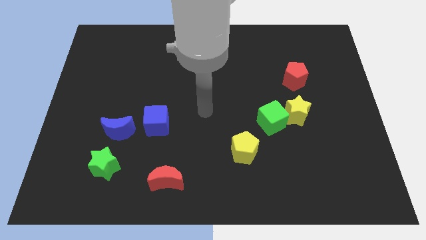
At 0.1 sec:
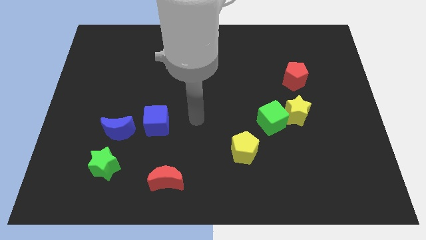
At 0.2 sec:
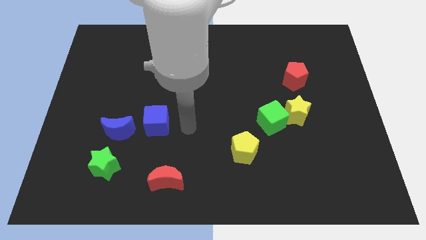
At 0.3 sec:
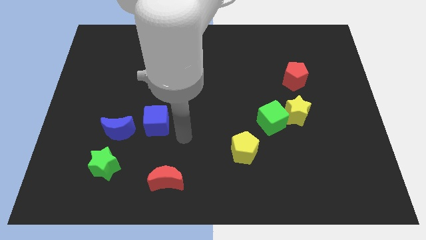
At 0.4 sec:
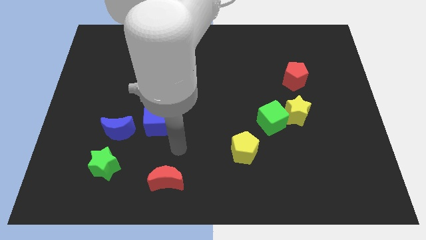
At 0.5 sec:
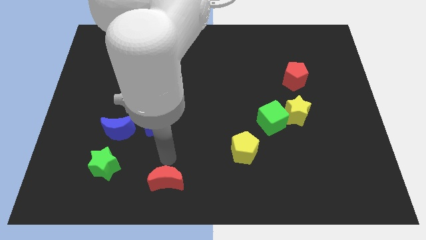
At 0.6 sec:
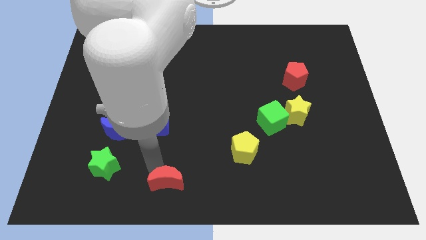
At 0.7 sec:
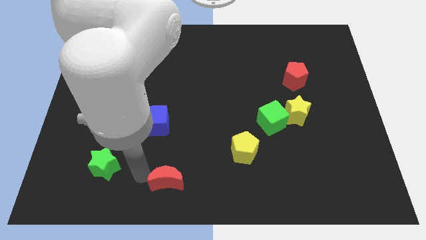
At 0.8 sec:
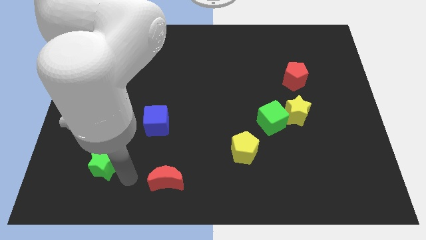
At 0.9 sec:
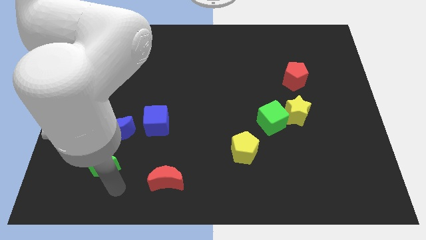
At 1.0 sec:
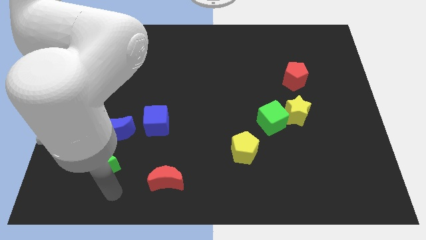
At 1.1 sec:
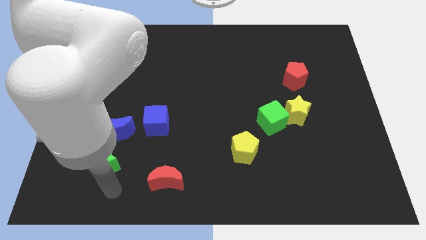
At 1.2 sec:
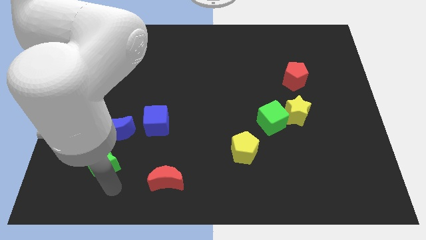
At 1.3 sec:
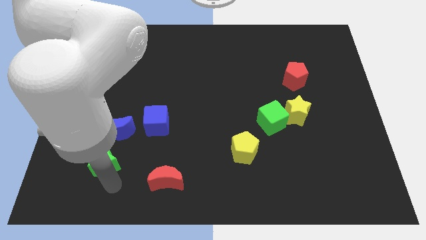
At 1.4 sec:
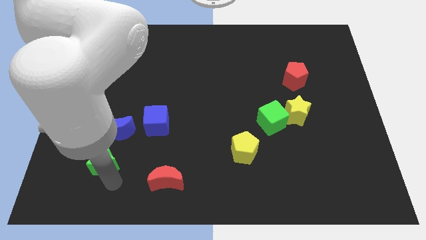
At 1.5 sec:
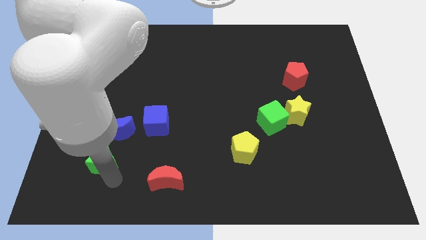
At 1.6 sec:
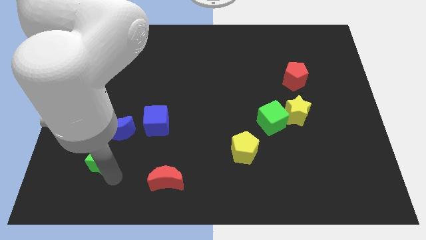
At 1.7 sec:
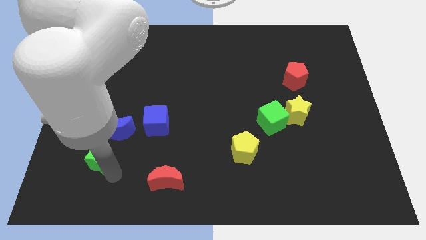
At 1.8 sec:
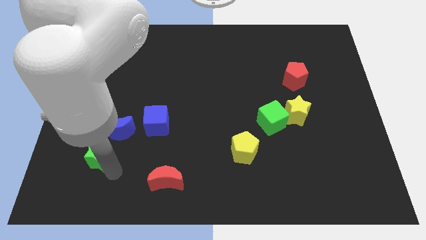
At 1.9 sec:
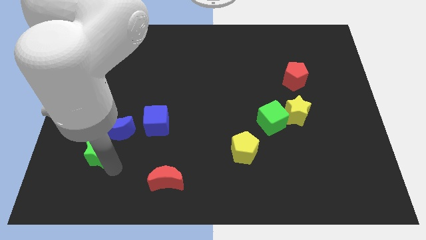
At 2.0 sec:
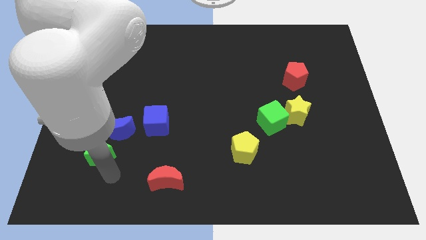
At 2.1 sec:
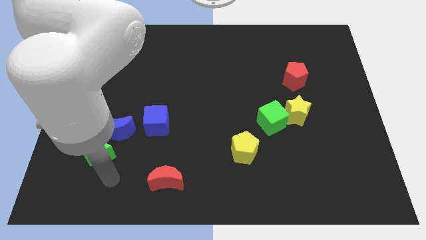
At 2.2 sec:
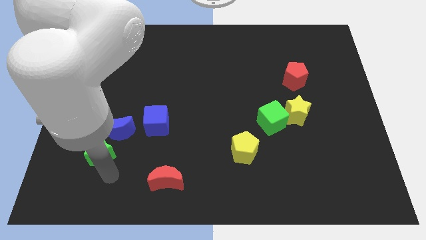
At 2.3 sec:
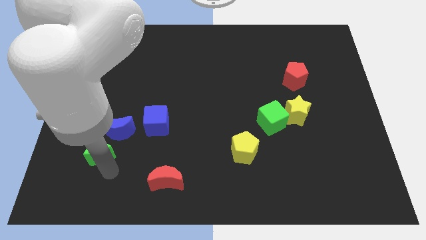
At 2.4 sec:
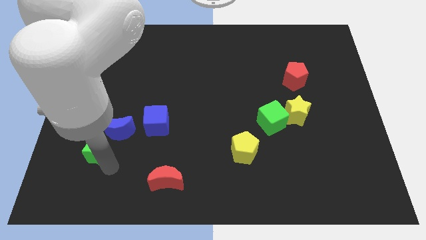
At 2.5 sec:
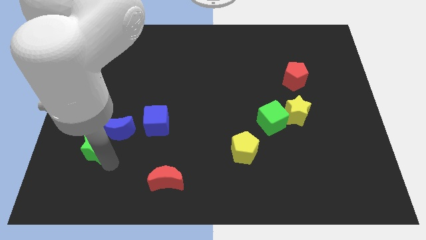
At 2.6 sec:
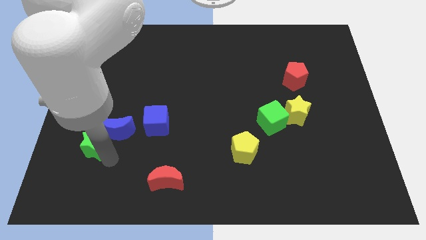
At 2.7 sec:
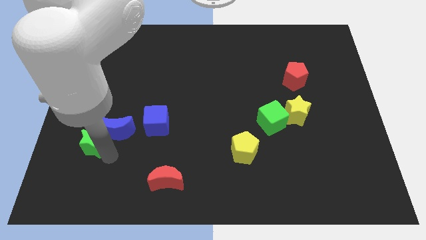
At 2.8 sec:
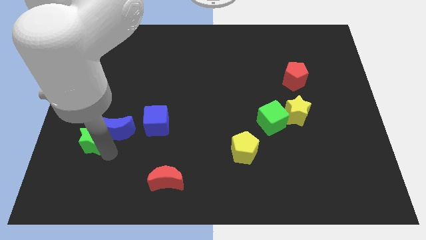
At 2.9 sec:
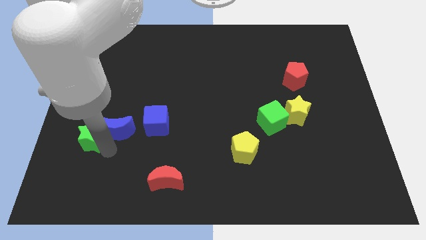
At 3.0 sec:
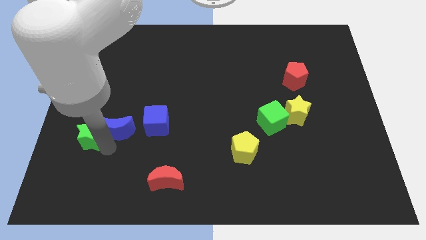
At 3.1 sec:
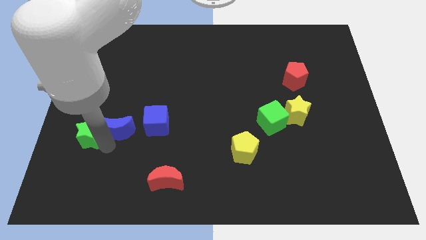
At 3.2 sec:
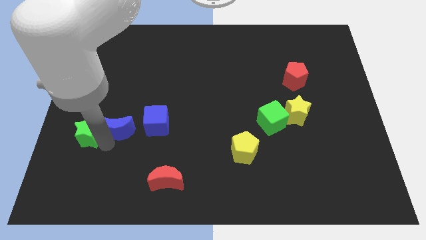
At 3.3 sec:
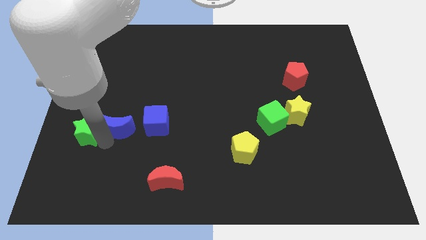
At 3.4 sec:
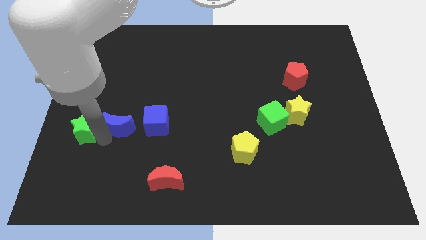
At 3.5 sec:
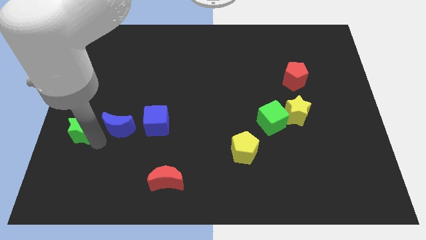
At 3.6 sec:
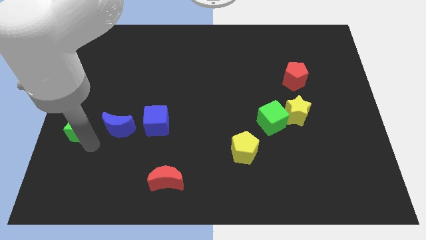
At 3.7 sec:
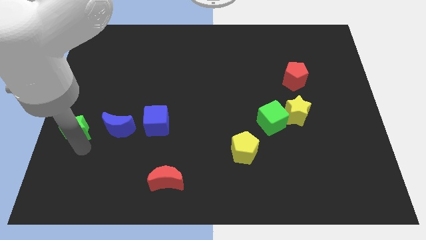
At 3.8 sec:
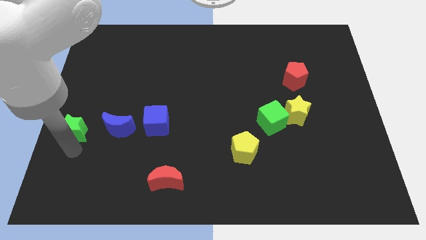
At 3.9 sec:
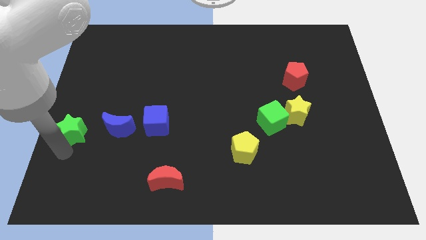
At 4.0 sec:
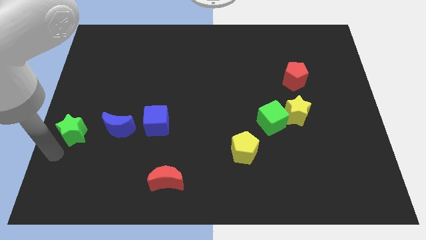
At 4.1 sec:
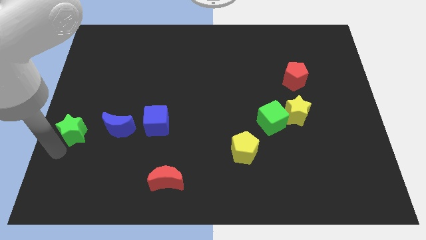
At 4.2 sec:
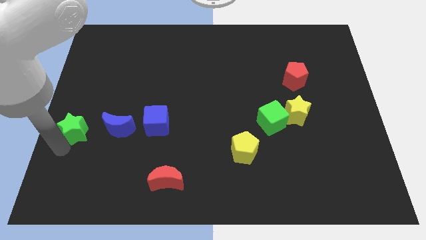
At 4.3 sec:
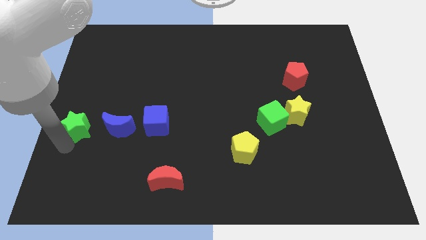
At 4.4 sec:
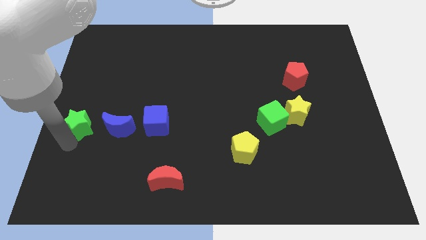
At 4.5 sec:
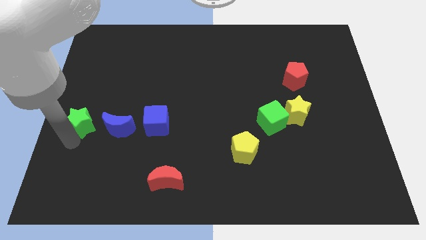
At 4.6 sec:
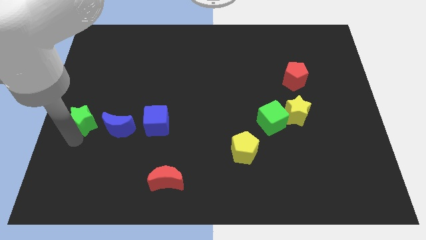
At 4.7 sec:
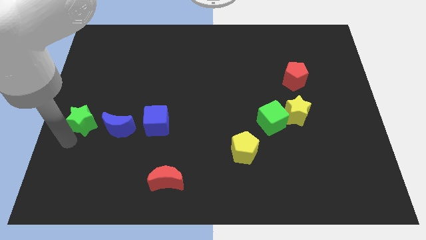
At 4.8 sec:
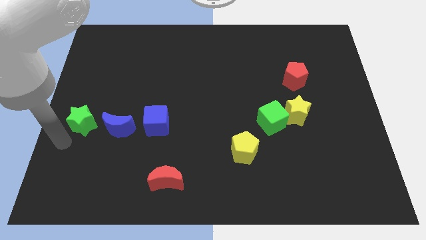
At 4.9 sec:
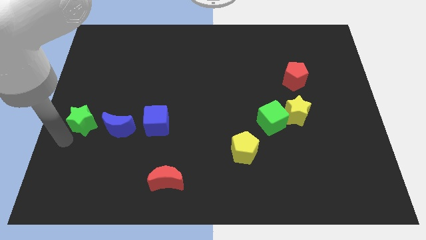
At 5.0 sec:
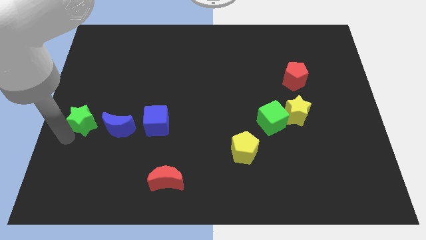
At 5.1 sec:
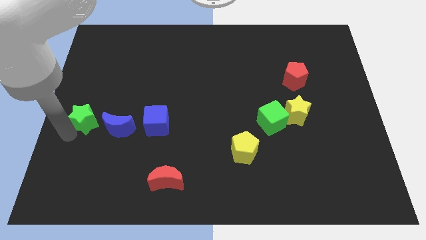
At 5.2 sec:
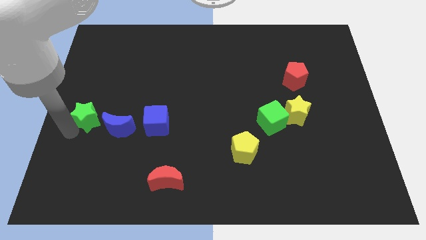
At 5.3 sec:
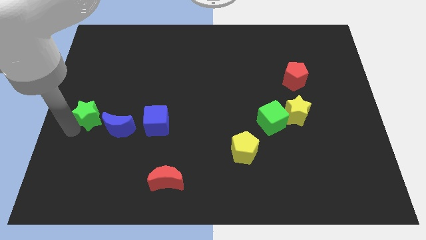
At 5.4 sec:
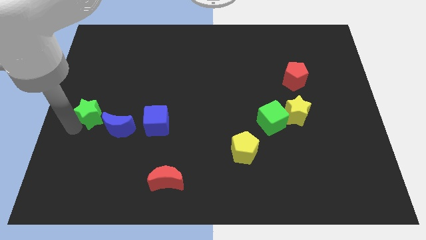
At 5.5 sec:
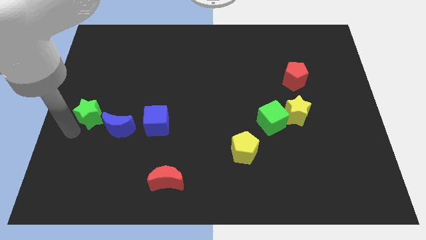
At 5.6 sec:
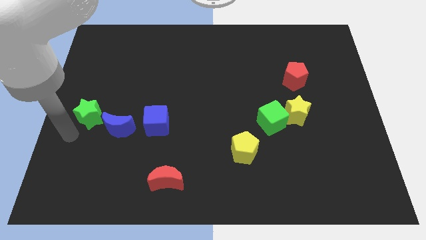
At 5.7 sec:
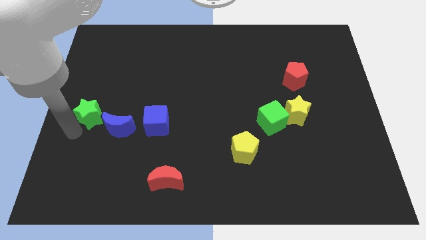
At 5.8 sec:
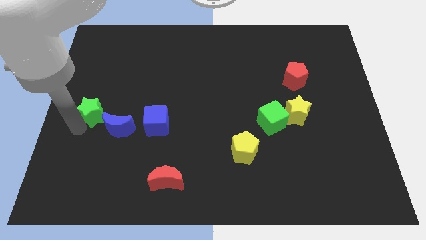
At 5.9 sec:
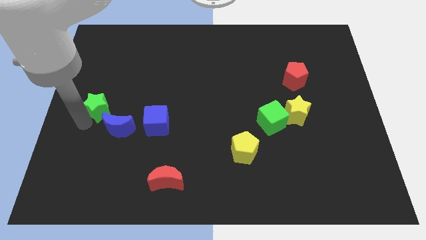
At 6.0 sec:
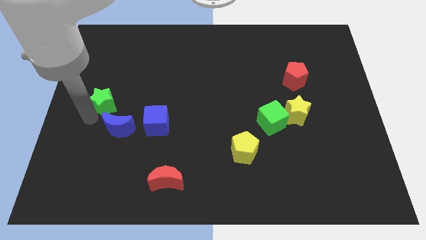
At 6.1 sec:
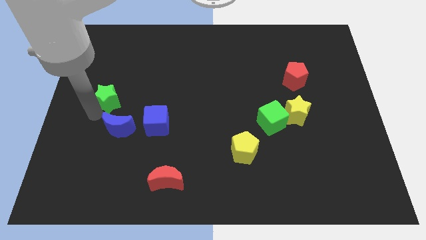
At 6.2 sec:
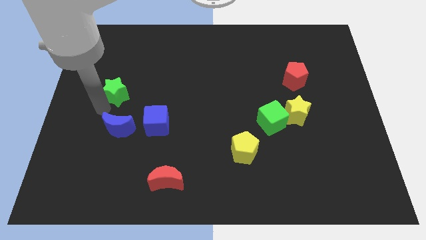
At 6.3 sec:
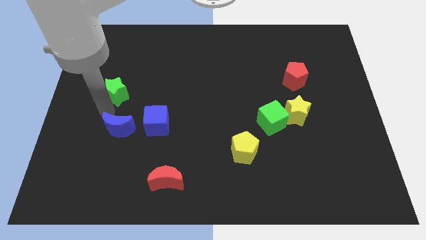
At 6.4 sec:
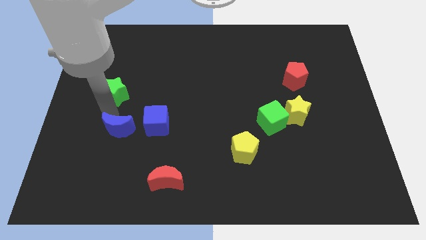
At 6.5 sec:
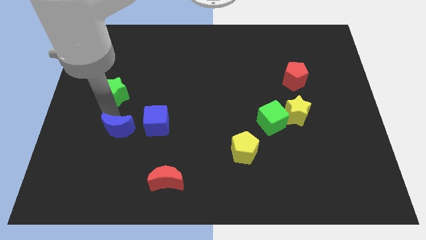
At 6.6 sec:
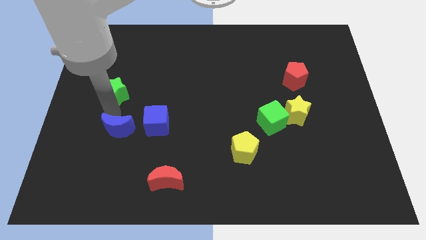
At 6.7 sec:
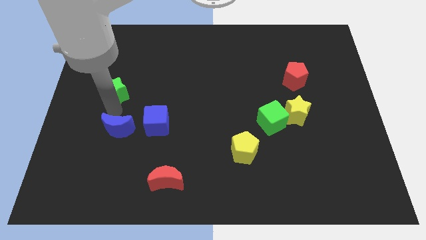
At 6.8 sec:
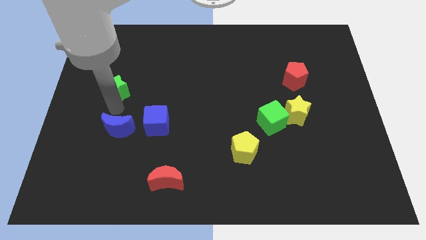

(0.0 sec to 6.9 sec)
slide the green star up

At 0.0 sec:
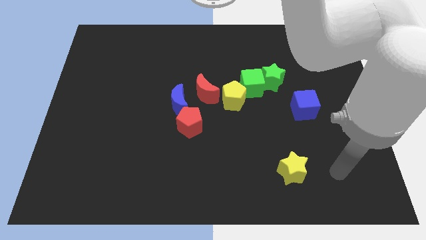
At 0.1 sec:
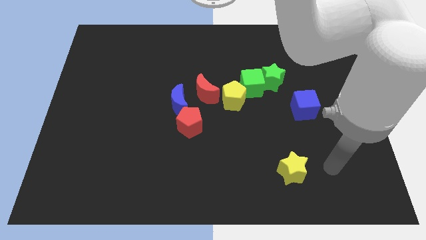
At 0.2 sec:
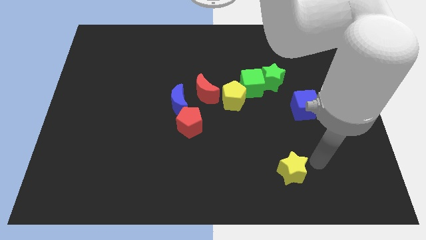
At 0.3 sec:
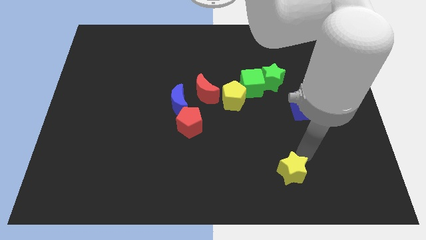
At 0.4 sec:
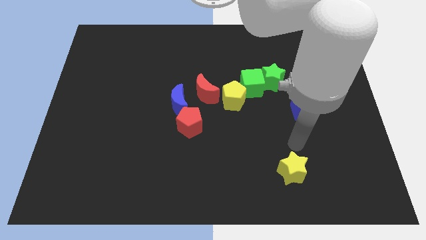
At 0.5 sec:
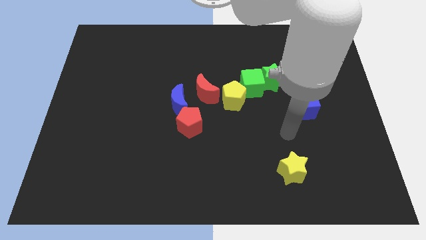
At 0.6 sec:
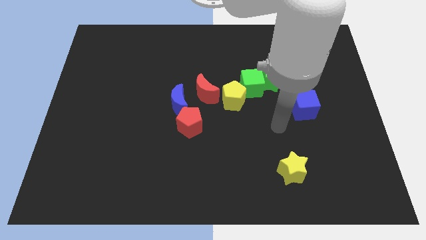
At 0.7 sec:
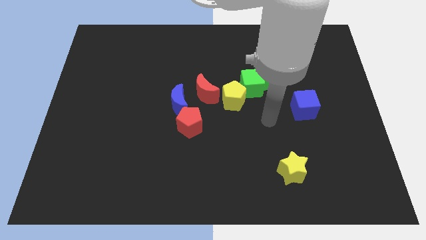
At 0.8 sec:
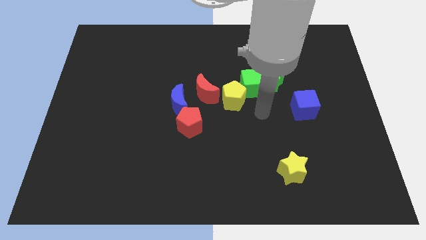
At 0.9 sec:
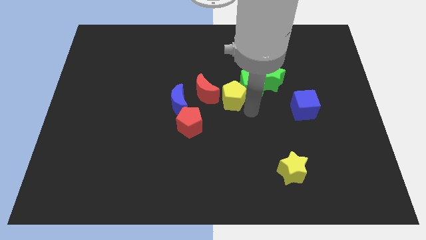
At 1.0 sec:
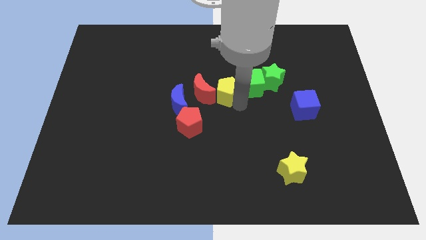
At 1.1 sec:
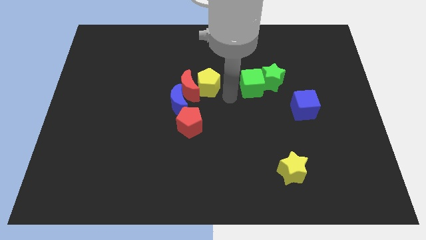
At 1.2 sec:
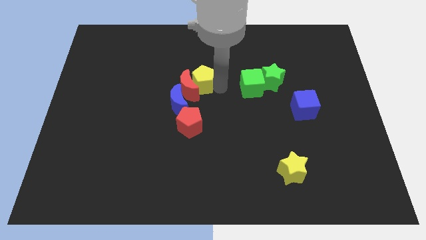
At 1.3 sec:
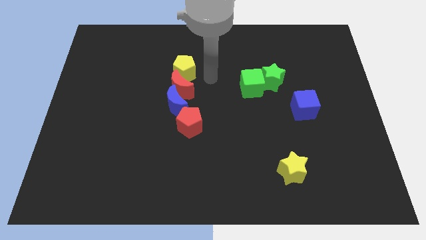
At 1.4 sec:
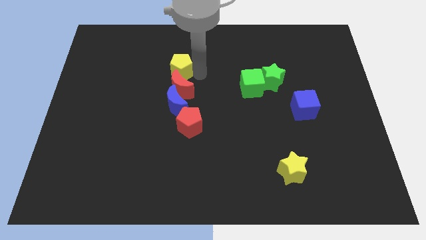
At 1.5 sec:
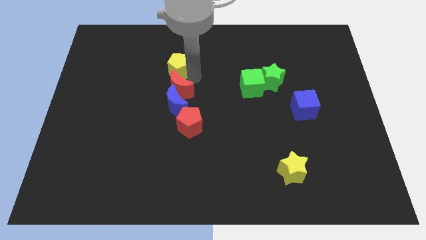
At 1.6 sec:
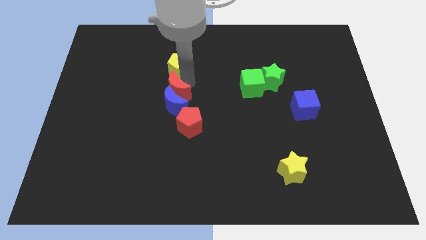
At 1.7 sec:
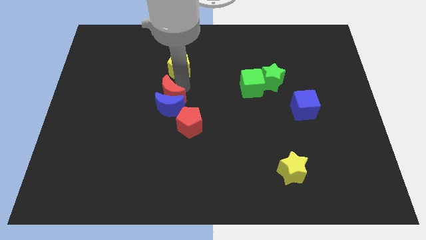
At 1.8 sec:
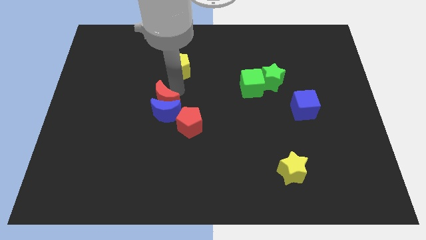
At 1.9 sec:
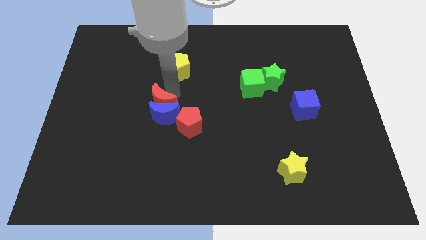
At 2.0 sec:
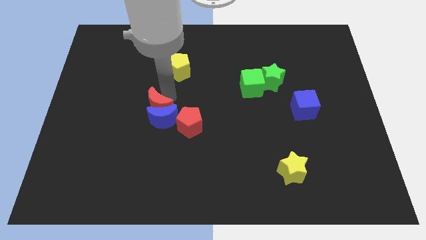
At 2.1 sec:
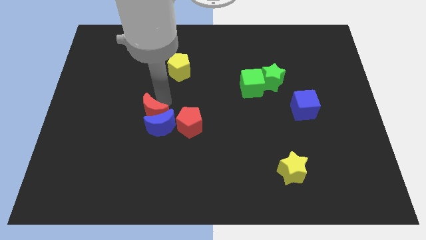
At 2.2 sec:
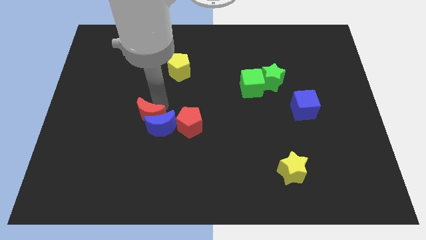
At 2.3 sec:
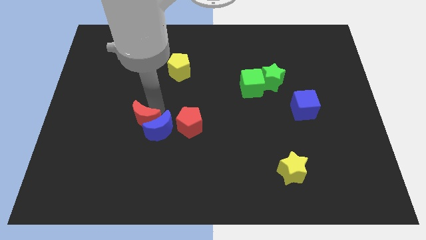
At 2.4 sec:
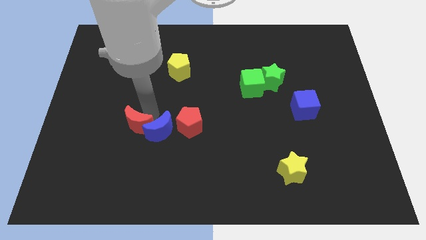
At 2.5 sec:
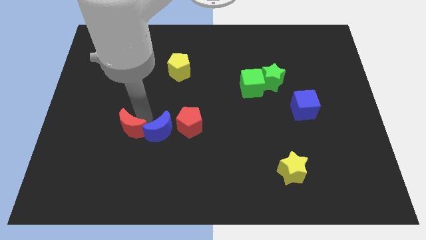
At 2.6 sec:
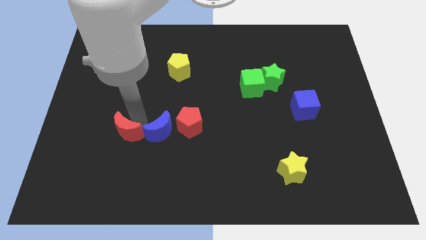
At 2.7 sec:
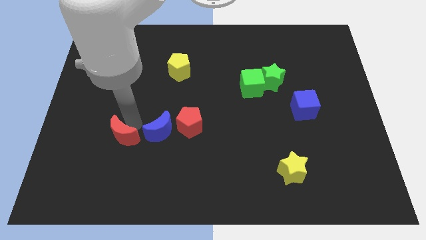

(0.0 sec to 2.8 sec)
push the red moon down and to the left diagonally
